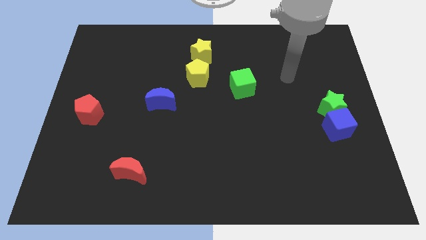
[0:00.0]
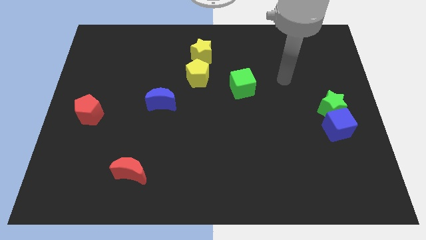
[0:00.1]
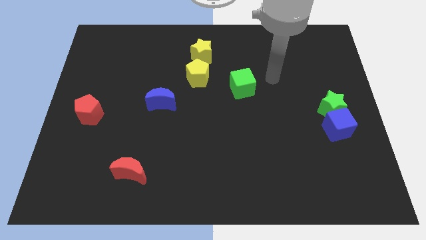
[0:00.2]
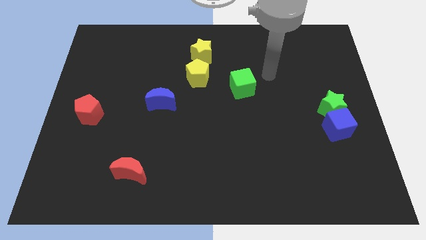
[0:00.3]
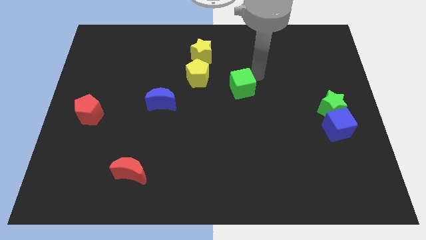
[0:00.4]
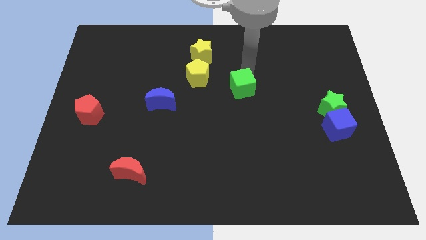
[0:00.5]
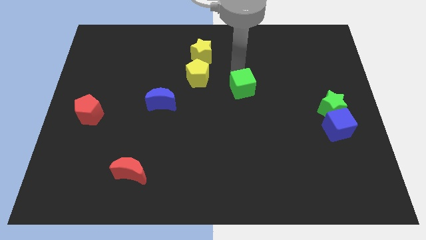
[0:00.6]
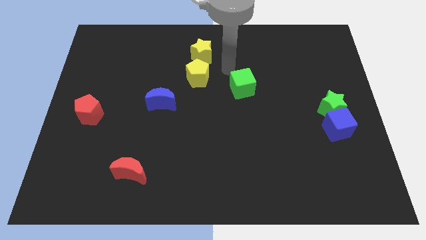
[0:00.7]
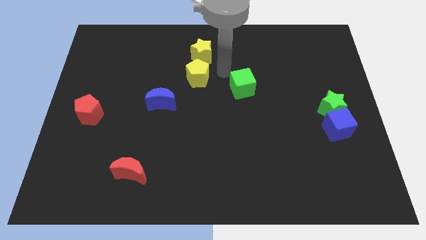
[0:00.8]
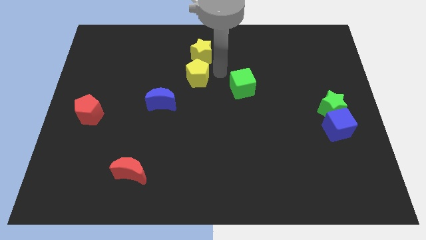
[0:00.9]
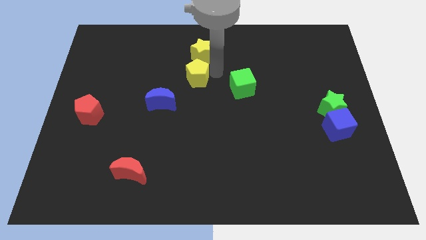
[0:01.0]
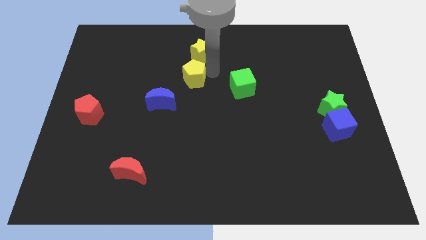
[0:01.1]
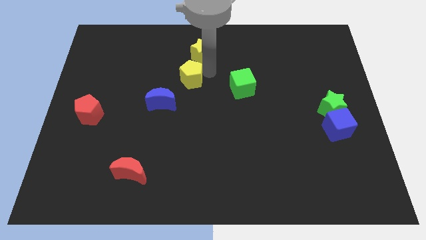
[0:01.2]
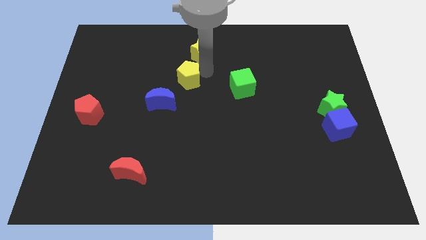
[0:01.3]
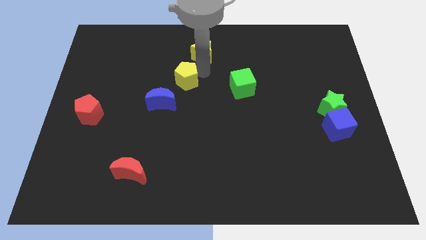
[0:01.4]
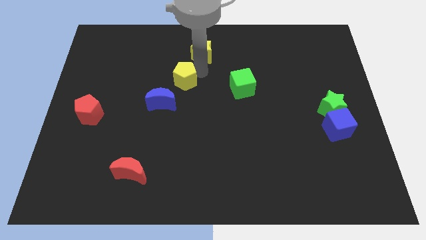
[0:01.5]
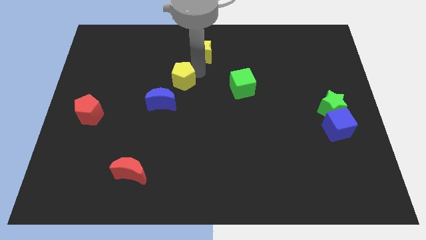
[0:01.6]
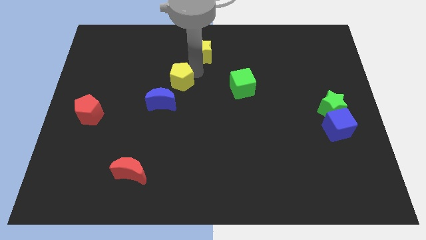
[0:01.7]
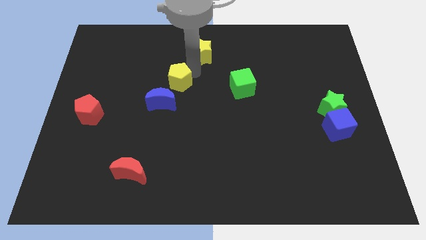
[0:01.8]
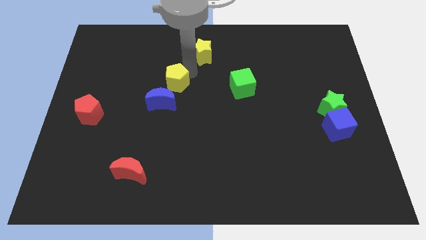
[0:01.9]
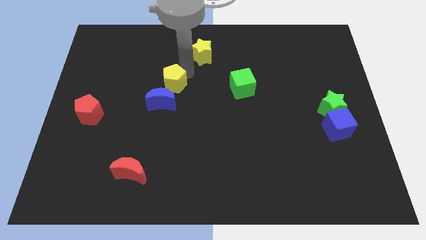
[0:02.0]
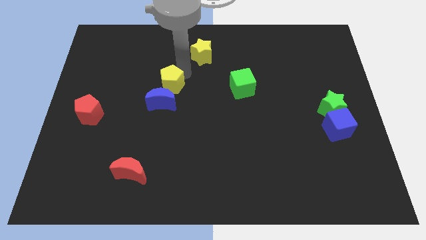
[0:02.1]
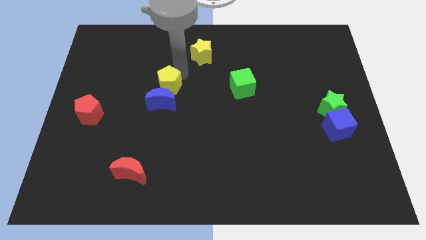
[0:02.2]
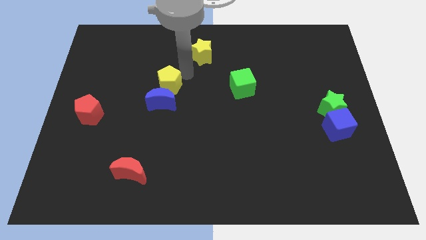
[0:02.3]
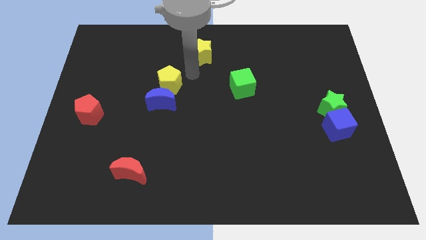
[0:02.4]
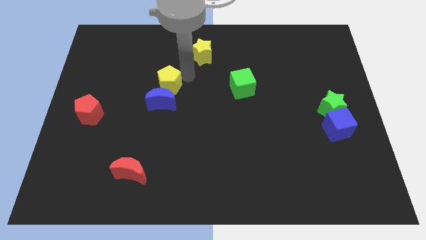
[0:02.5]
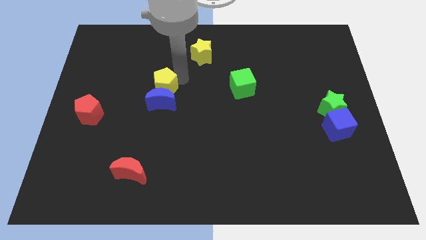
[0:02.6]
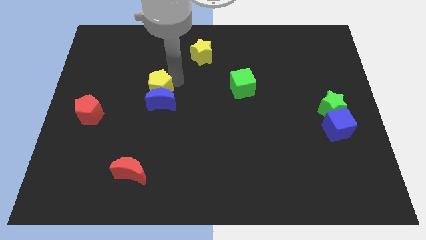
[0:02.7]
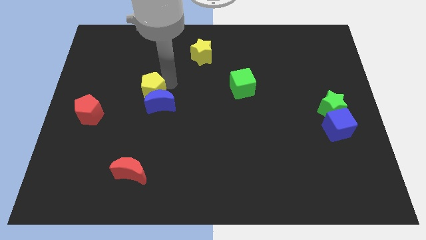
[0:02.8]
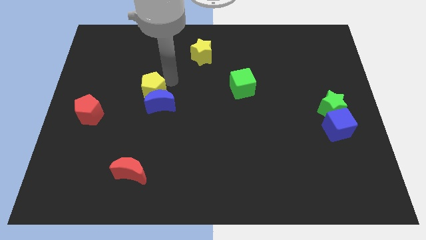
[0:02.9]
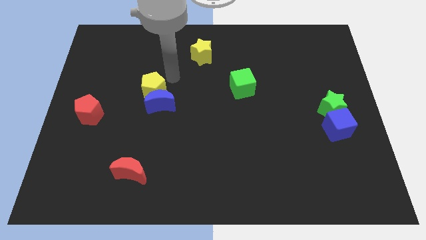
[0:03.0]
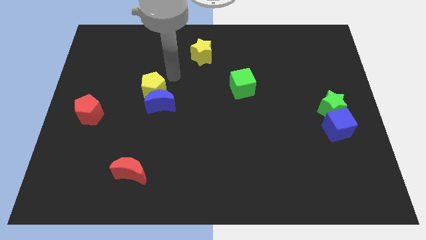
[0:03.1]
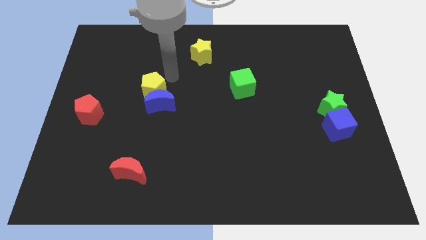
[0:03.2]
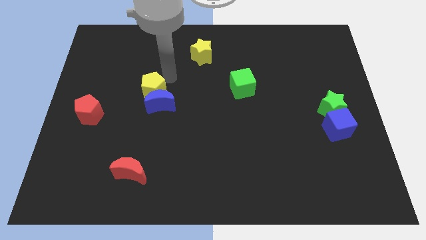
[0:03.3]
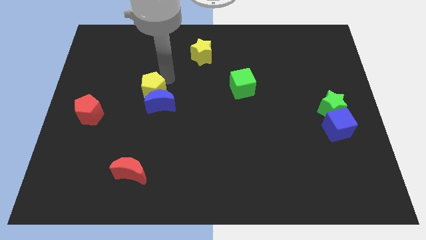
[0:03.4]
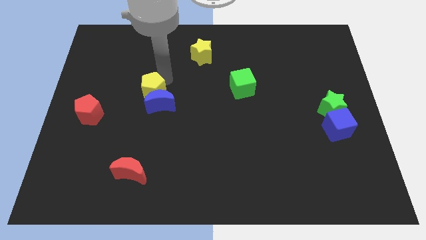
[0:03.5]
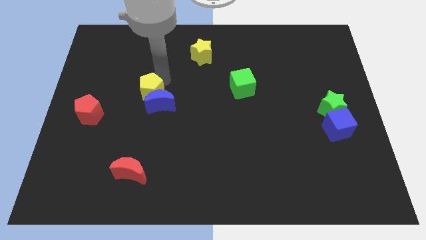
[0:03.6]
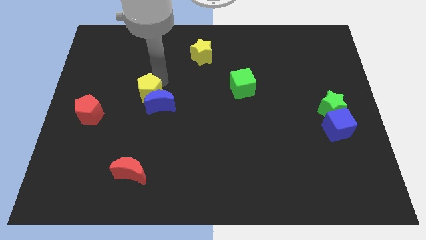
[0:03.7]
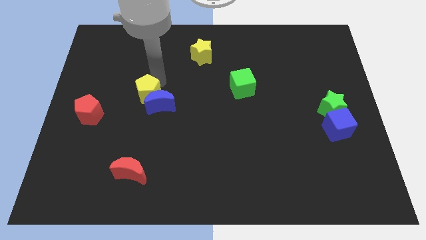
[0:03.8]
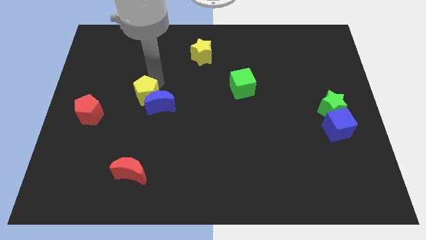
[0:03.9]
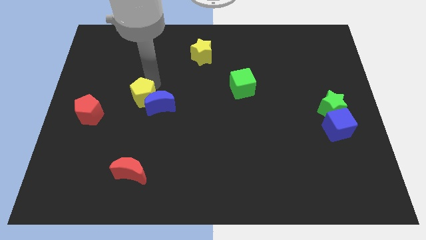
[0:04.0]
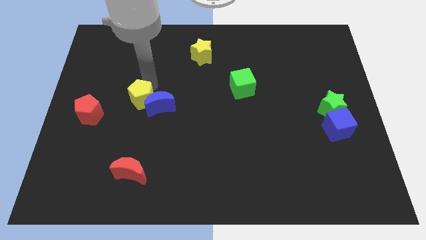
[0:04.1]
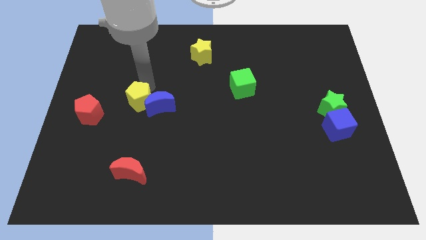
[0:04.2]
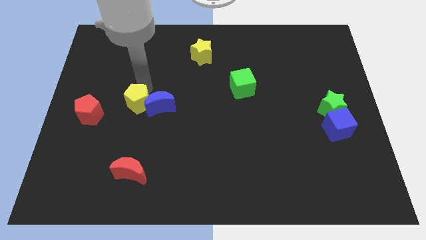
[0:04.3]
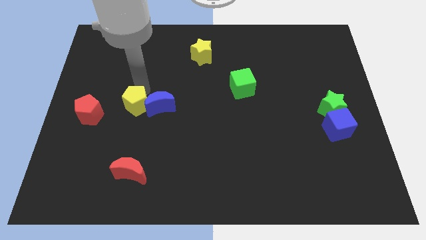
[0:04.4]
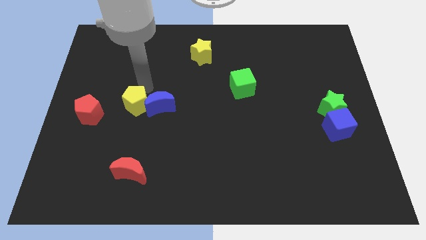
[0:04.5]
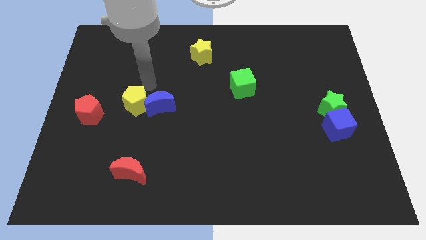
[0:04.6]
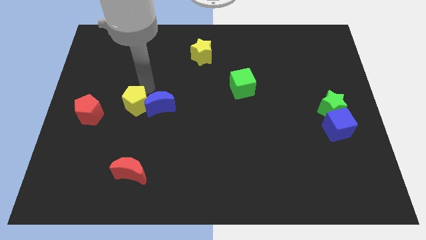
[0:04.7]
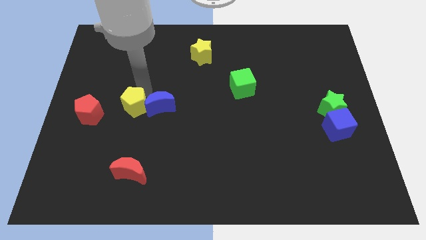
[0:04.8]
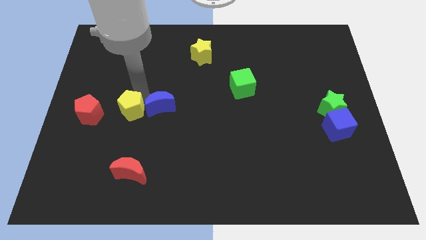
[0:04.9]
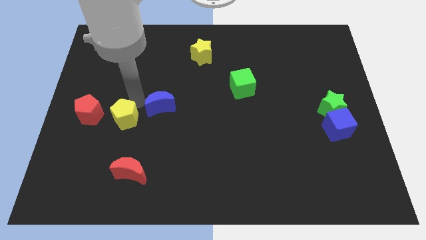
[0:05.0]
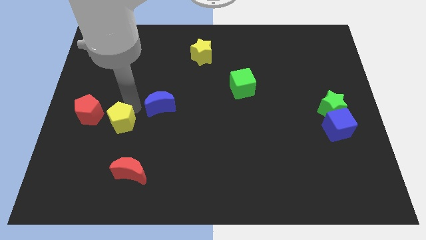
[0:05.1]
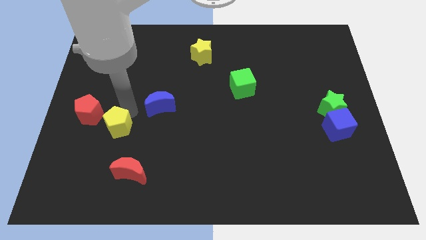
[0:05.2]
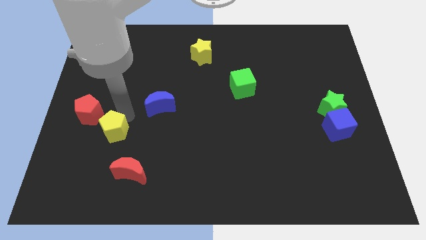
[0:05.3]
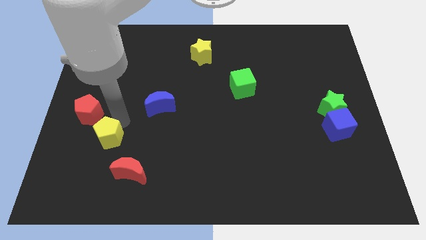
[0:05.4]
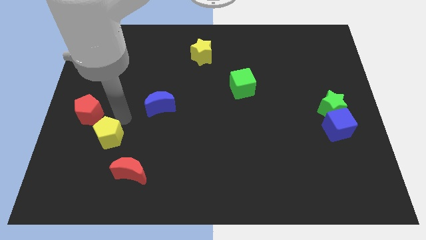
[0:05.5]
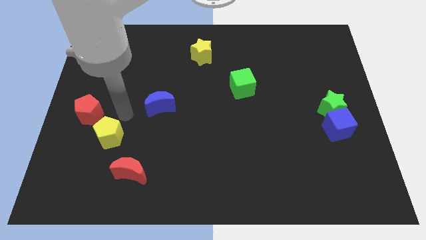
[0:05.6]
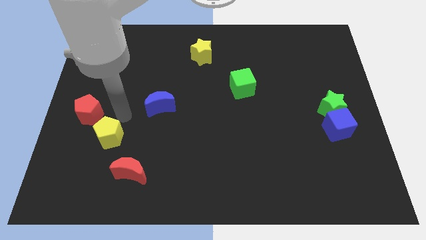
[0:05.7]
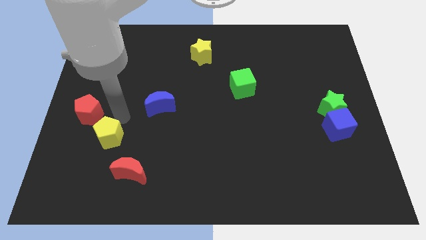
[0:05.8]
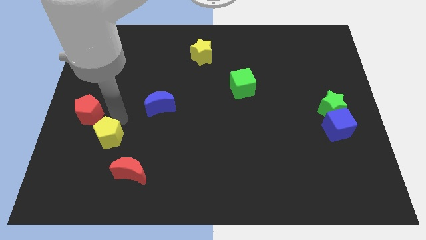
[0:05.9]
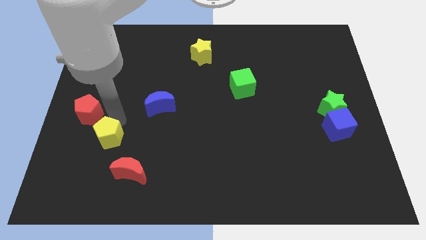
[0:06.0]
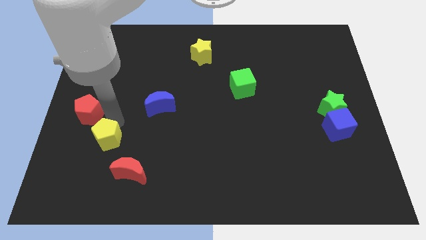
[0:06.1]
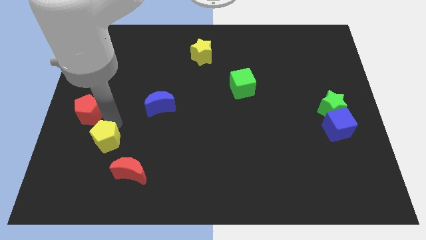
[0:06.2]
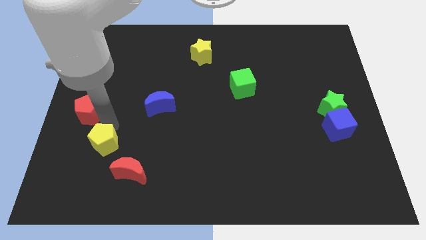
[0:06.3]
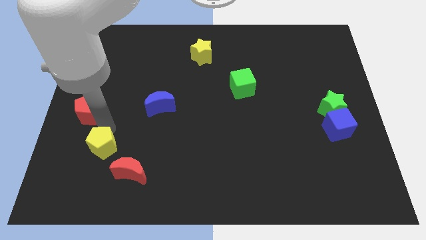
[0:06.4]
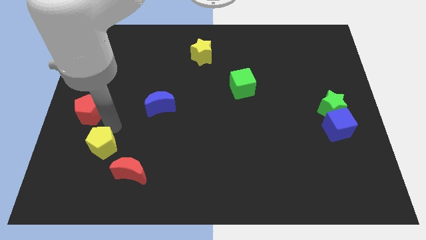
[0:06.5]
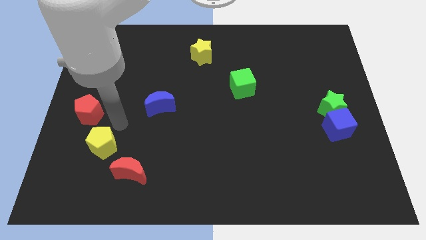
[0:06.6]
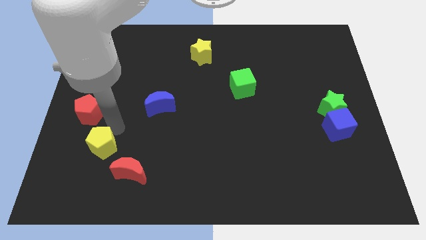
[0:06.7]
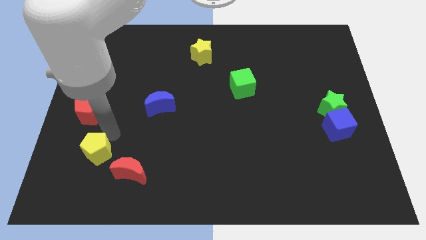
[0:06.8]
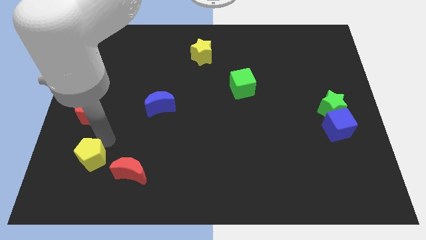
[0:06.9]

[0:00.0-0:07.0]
move the yellow pentagon to the left of the red moon

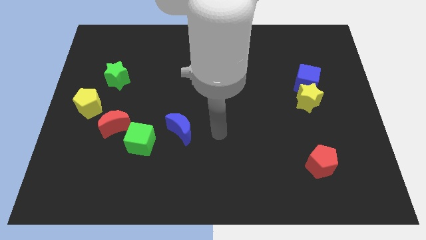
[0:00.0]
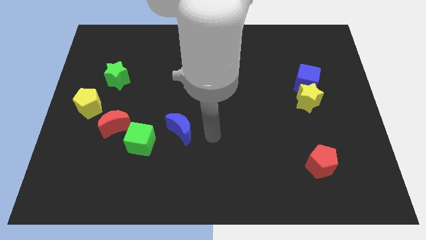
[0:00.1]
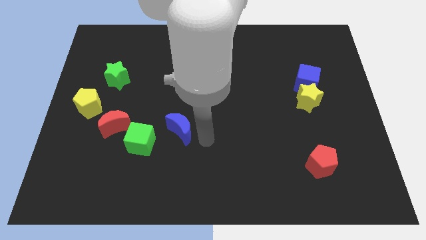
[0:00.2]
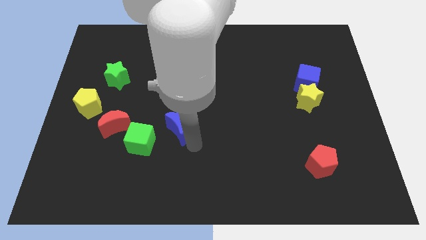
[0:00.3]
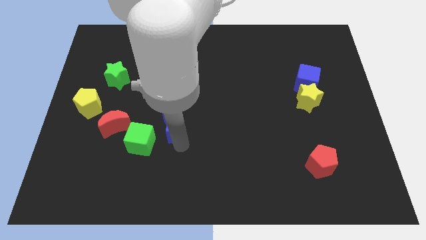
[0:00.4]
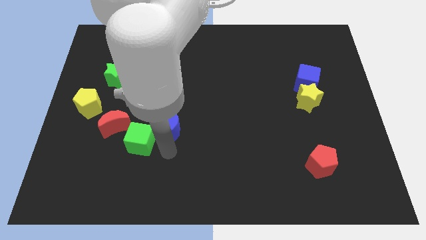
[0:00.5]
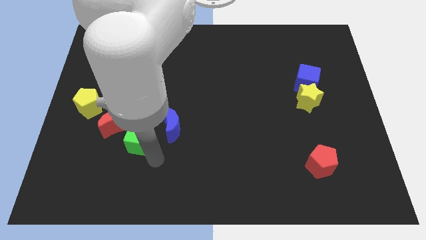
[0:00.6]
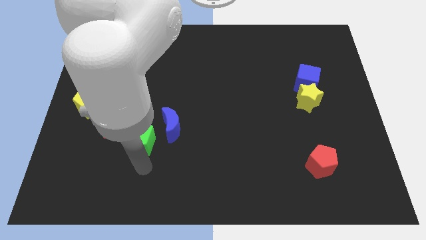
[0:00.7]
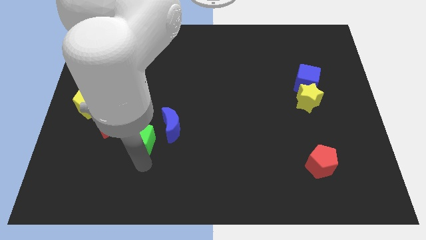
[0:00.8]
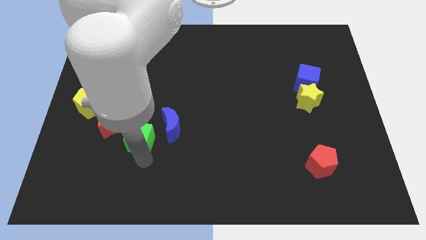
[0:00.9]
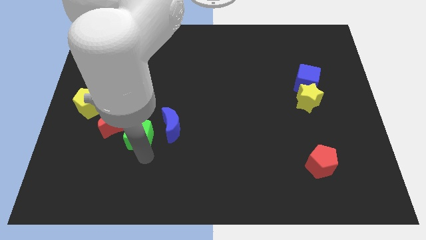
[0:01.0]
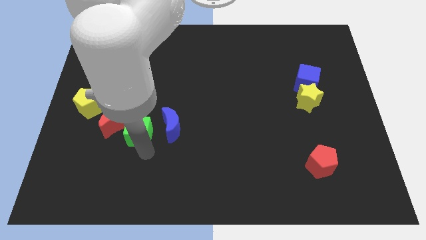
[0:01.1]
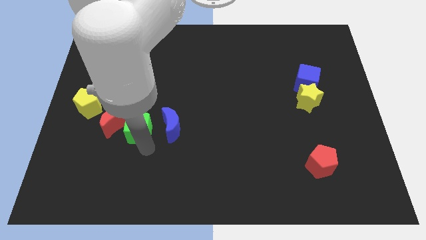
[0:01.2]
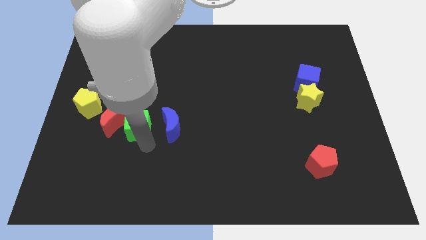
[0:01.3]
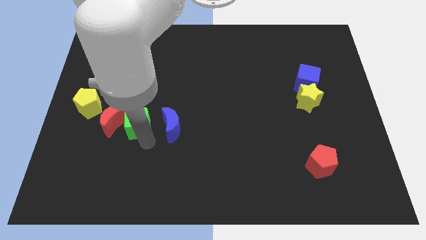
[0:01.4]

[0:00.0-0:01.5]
slide the green cube diagonally up and to the right of the red moon
